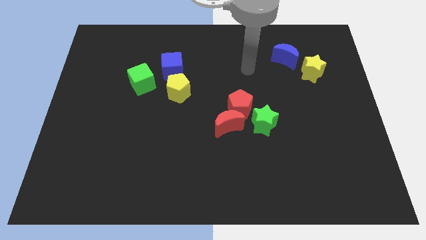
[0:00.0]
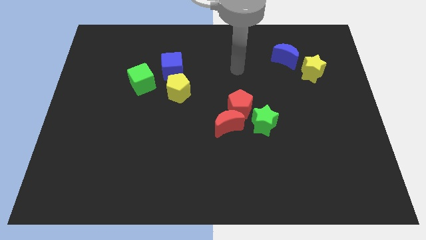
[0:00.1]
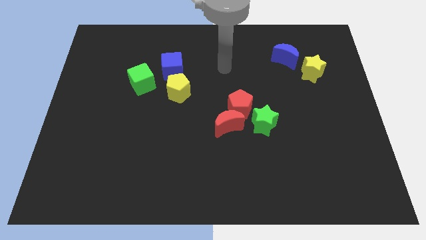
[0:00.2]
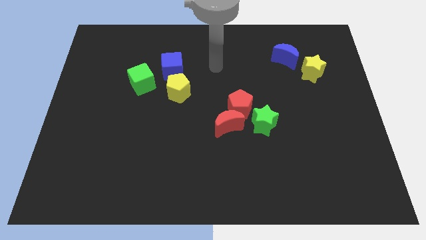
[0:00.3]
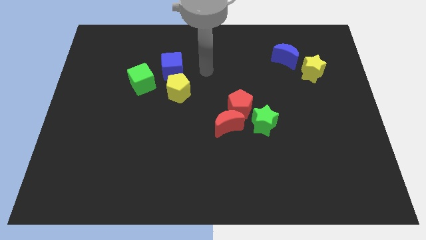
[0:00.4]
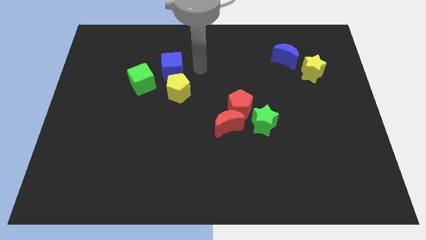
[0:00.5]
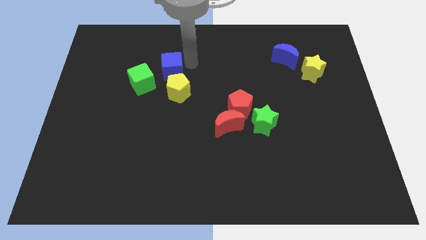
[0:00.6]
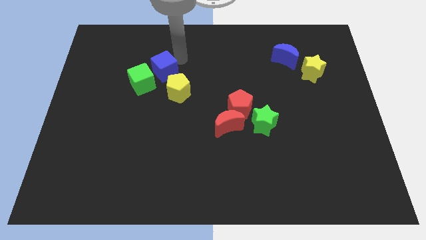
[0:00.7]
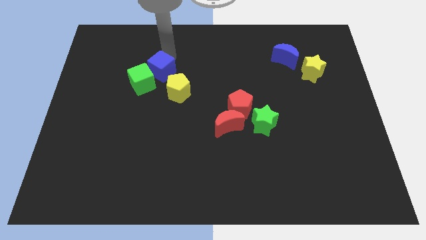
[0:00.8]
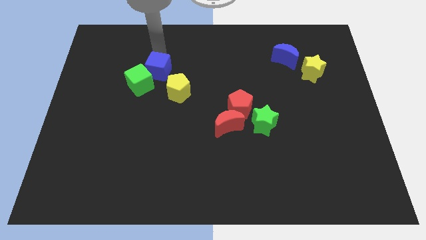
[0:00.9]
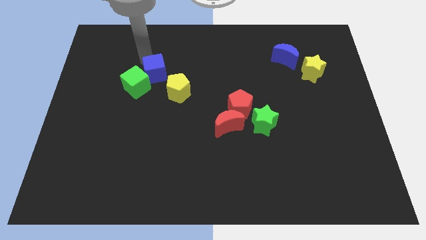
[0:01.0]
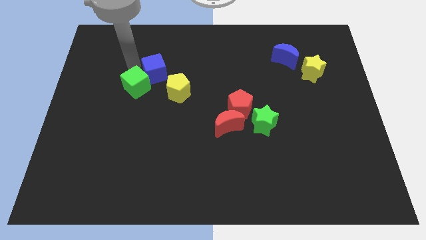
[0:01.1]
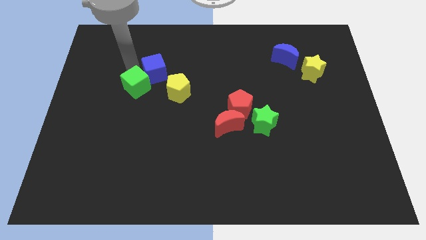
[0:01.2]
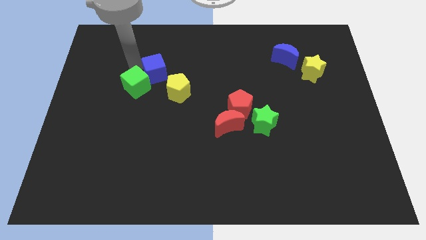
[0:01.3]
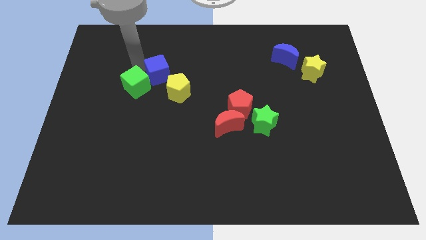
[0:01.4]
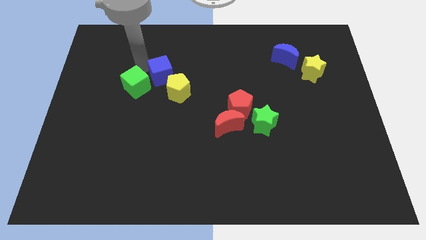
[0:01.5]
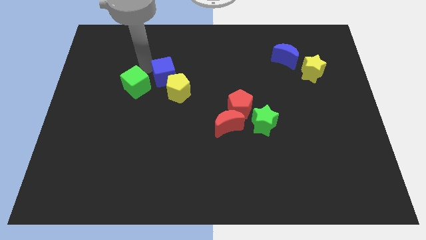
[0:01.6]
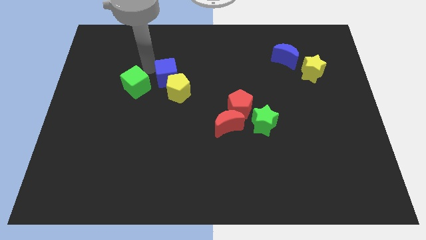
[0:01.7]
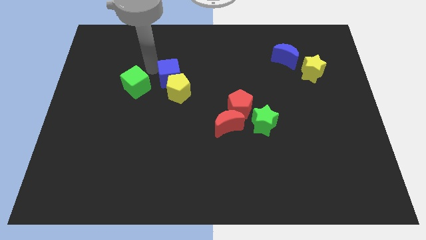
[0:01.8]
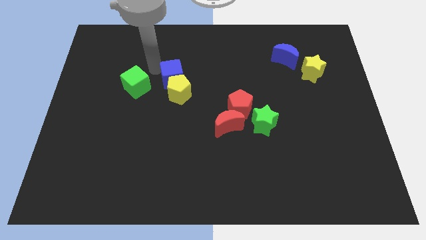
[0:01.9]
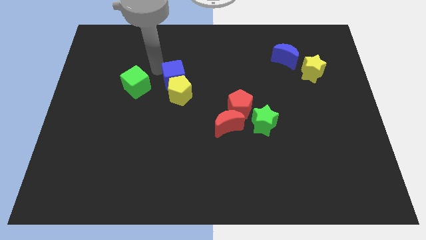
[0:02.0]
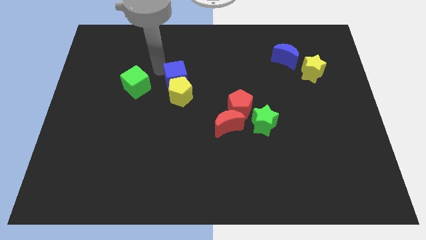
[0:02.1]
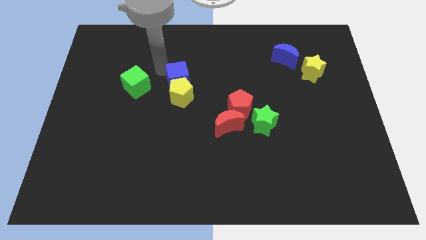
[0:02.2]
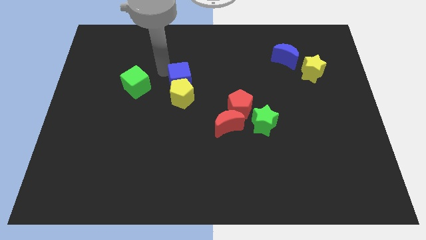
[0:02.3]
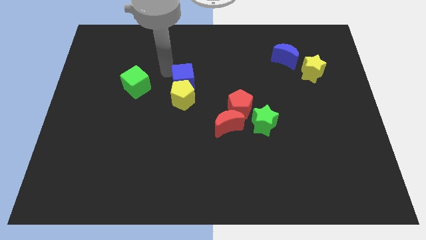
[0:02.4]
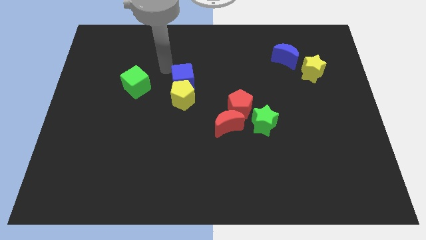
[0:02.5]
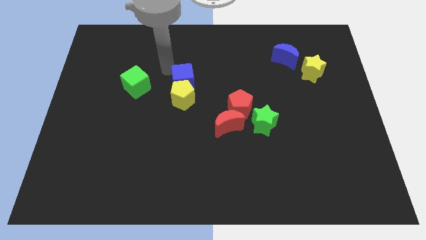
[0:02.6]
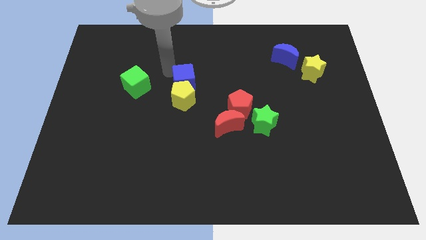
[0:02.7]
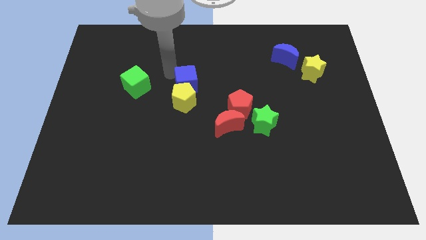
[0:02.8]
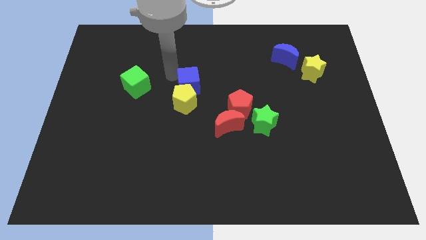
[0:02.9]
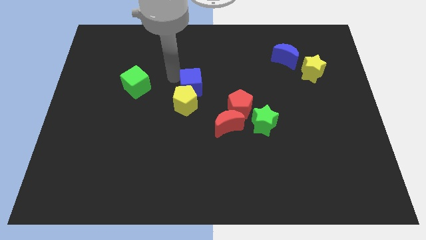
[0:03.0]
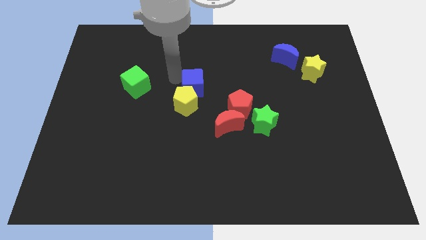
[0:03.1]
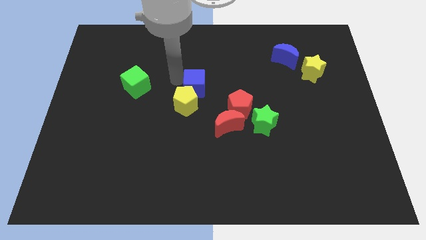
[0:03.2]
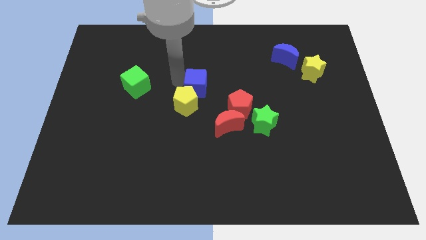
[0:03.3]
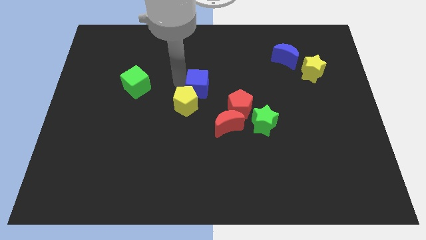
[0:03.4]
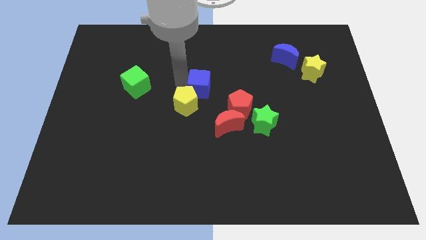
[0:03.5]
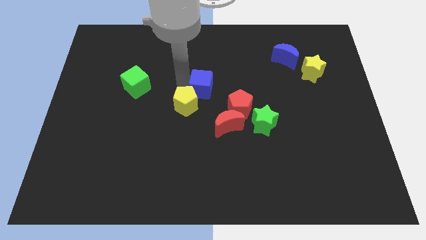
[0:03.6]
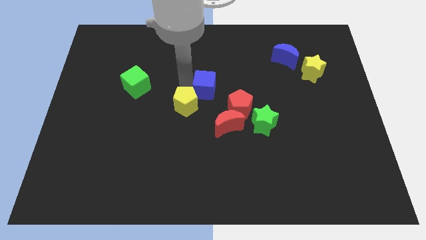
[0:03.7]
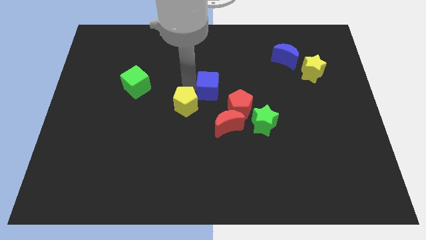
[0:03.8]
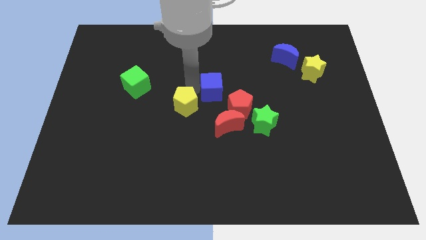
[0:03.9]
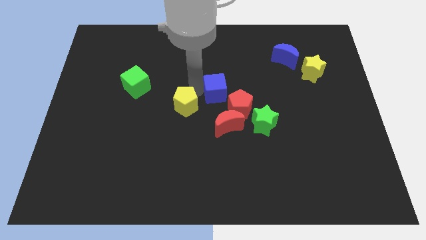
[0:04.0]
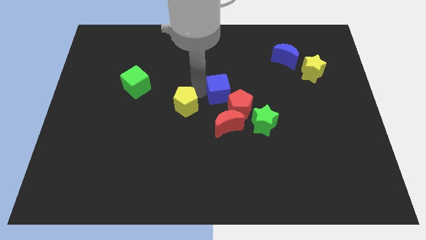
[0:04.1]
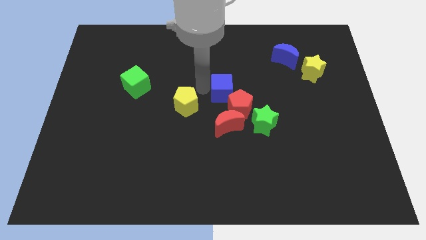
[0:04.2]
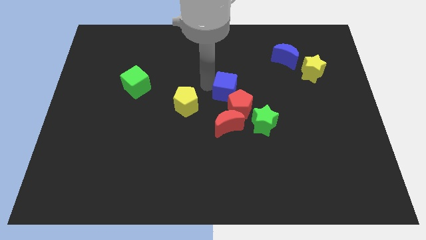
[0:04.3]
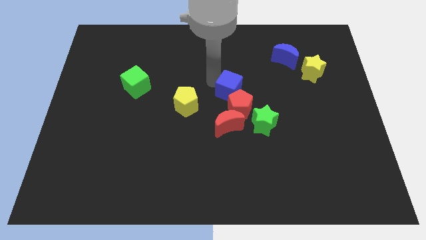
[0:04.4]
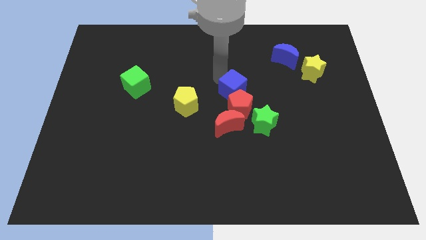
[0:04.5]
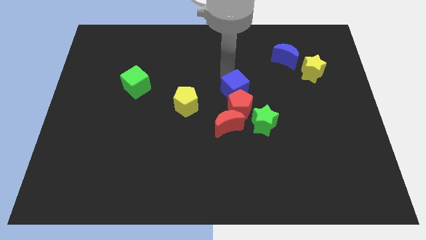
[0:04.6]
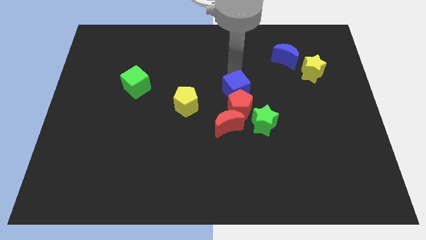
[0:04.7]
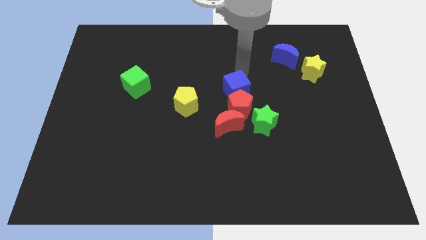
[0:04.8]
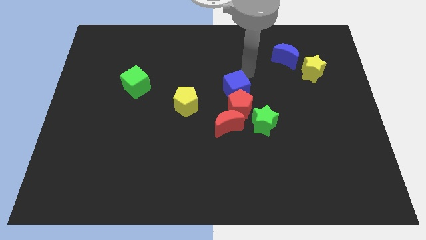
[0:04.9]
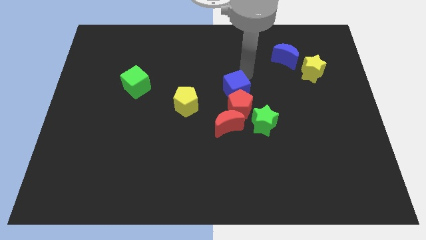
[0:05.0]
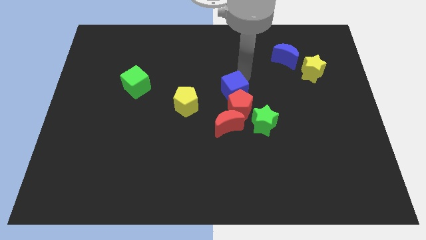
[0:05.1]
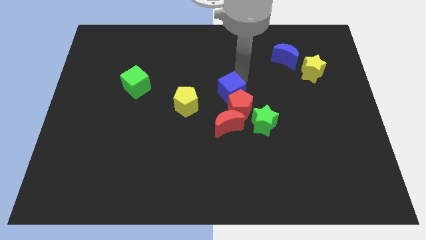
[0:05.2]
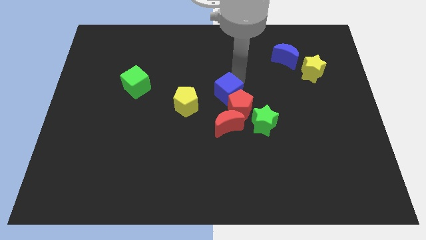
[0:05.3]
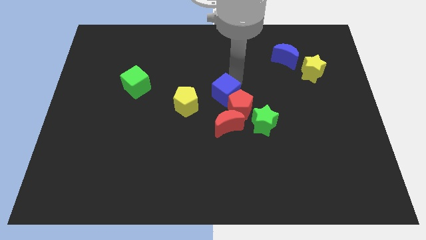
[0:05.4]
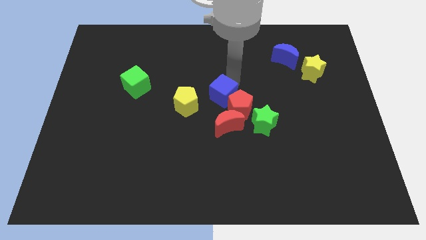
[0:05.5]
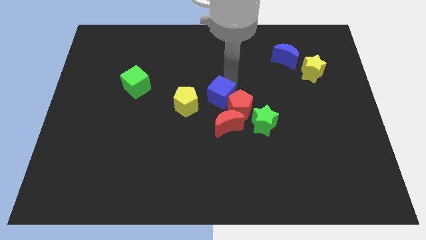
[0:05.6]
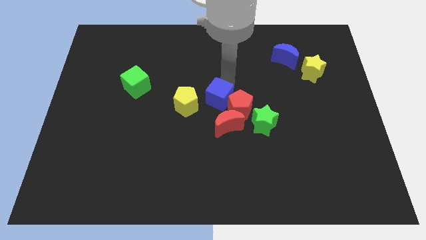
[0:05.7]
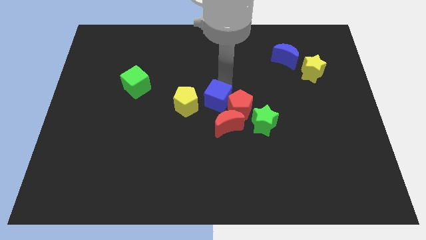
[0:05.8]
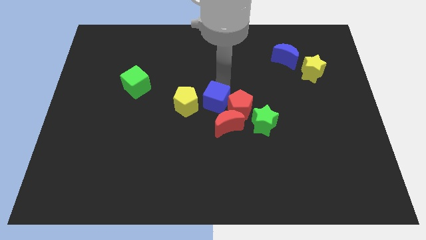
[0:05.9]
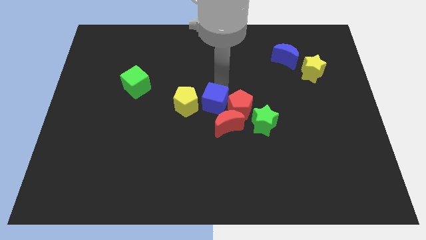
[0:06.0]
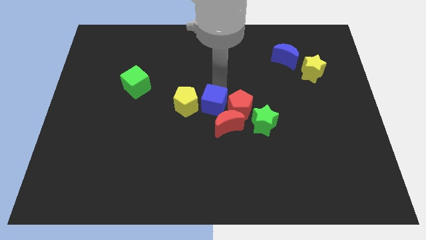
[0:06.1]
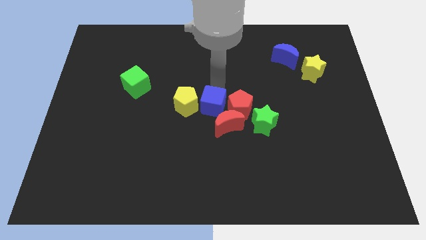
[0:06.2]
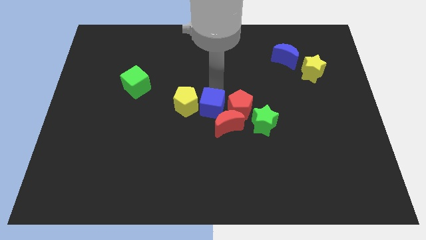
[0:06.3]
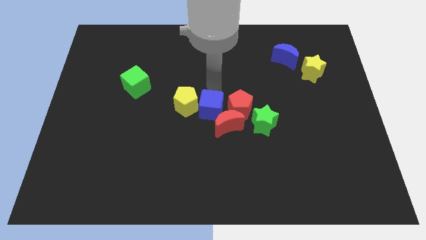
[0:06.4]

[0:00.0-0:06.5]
push the blue cube to the red moon

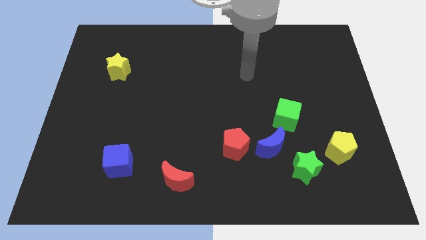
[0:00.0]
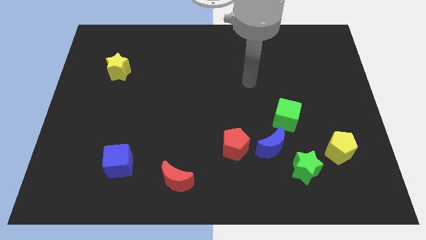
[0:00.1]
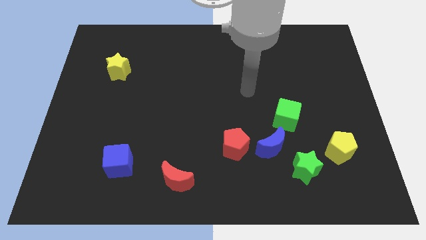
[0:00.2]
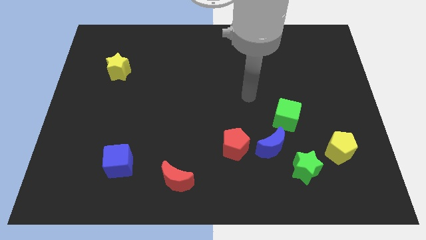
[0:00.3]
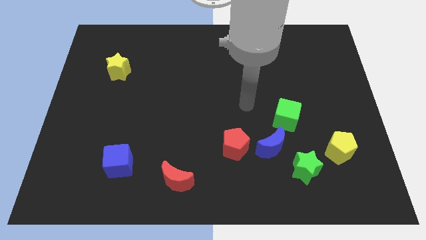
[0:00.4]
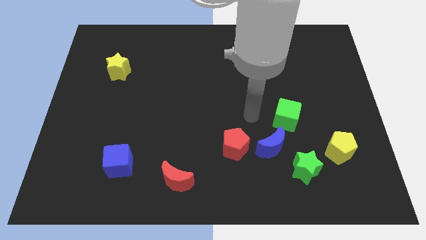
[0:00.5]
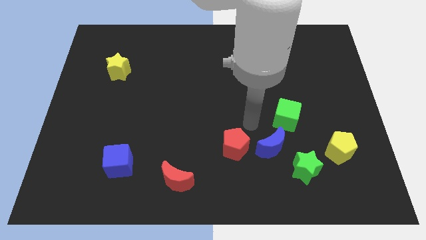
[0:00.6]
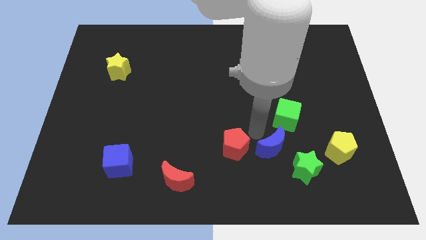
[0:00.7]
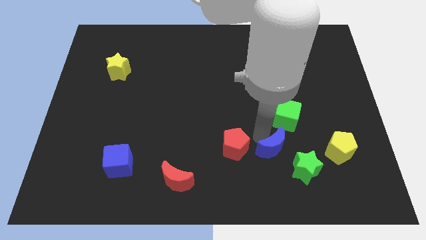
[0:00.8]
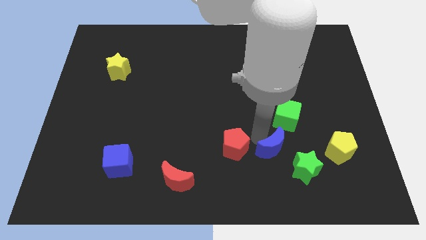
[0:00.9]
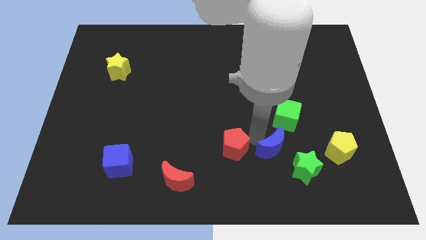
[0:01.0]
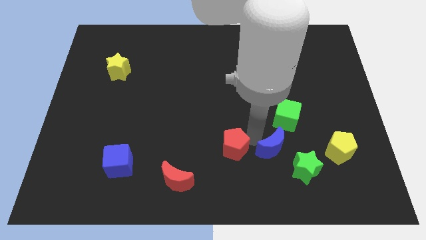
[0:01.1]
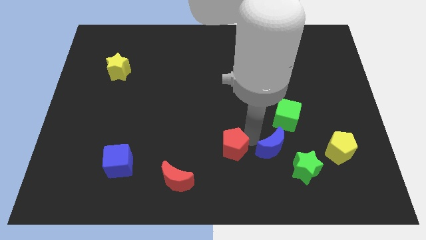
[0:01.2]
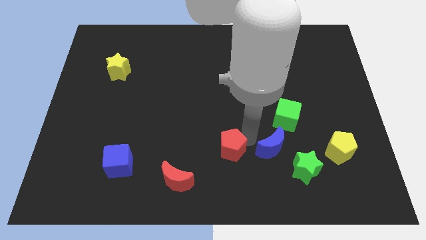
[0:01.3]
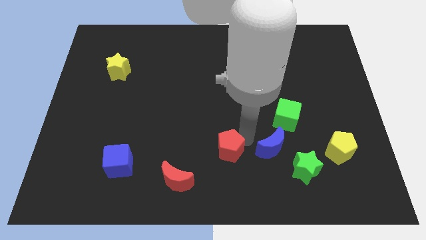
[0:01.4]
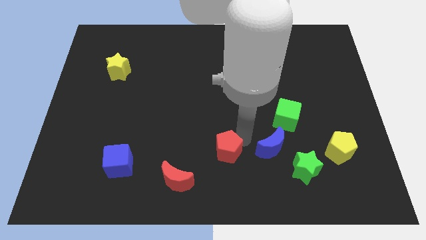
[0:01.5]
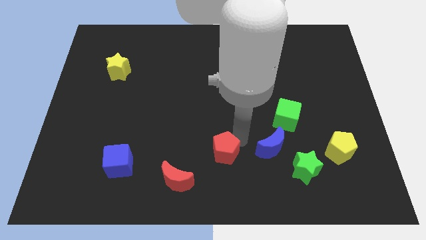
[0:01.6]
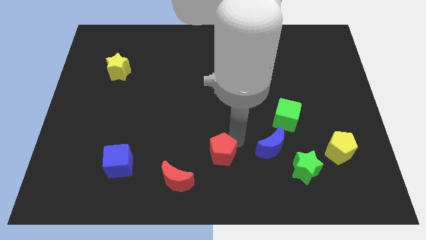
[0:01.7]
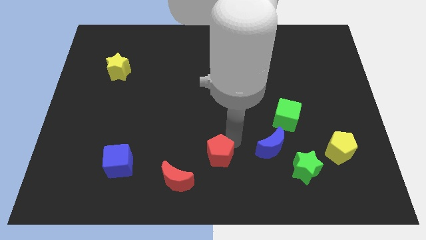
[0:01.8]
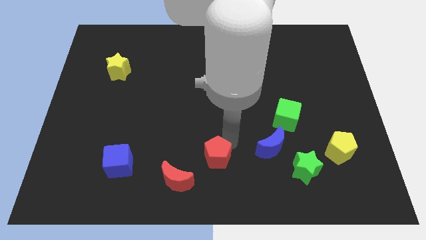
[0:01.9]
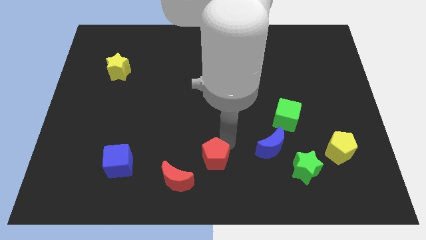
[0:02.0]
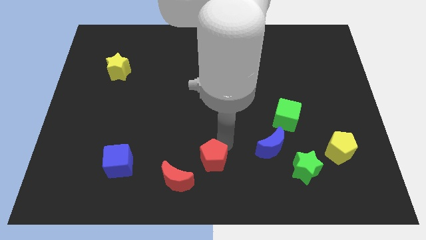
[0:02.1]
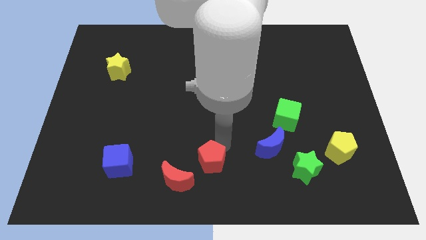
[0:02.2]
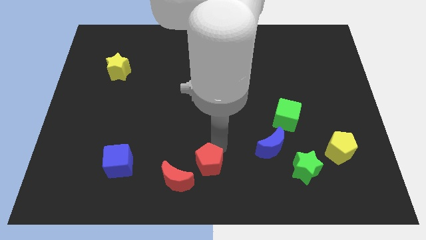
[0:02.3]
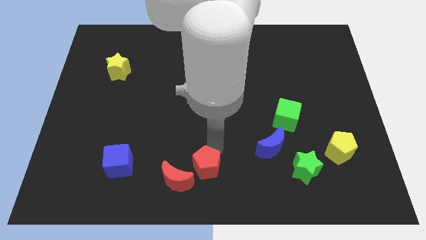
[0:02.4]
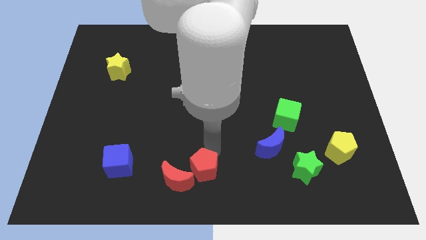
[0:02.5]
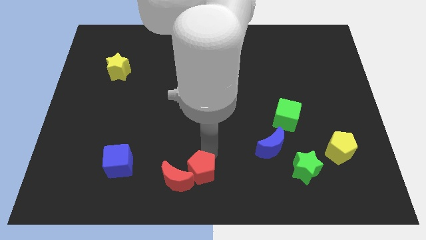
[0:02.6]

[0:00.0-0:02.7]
put the red pentagon close to the red moon
